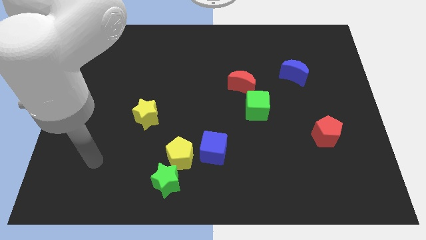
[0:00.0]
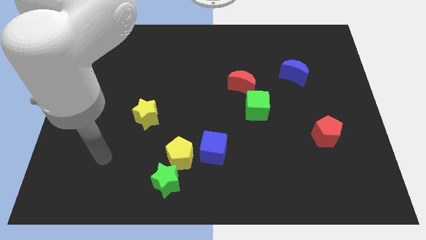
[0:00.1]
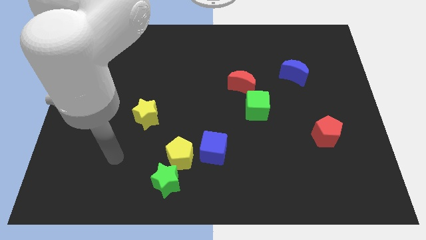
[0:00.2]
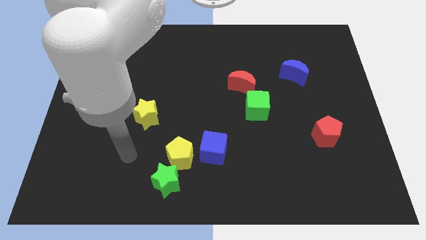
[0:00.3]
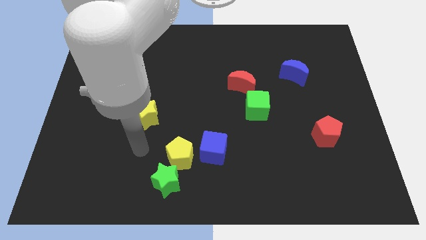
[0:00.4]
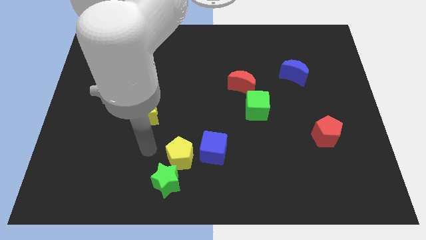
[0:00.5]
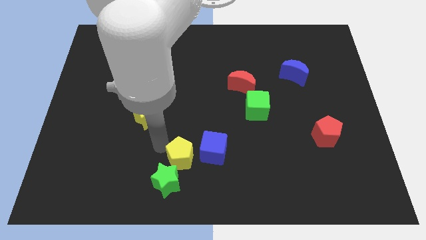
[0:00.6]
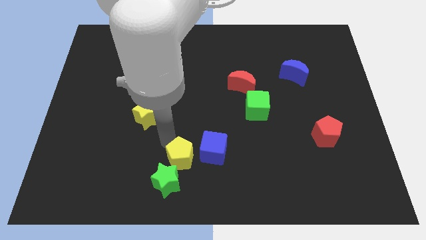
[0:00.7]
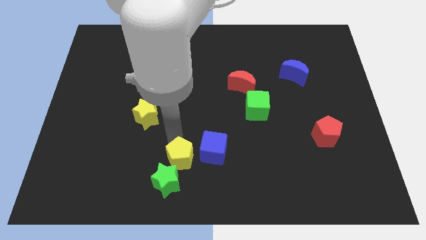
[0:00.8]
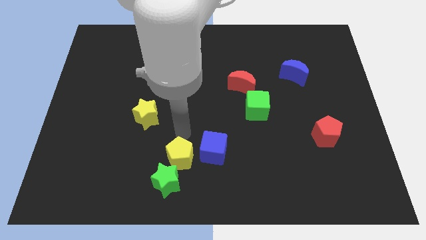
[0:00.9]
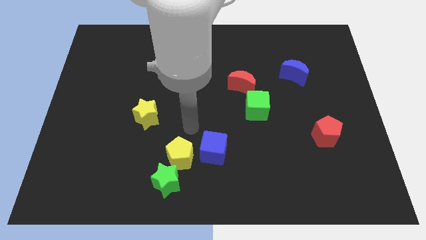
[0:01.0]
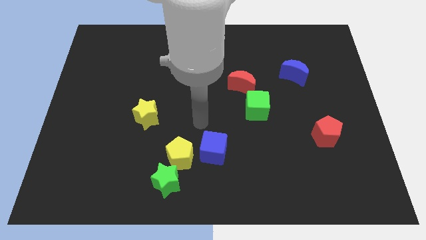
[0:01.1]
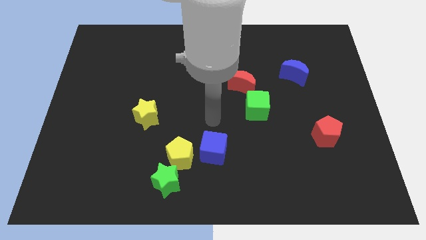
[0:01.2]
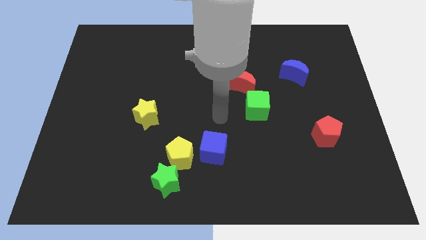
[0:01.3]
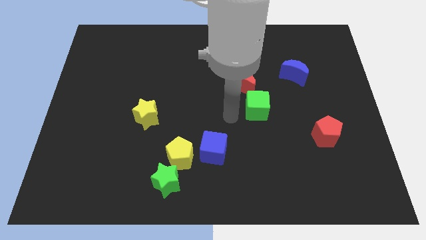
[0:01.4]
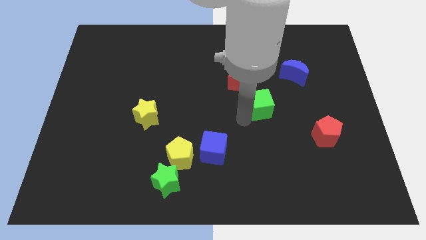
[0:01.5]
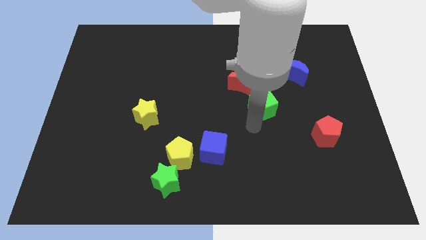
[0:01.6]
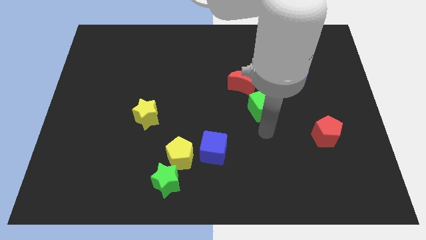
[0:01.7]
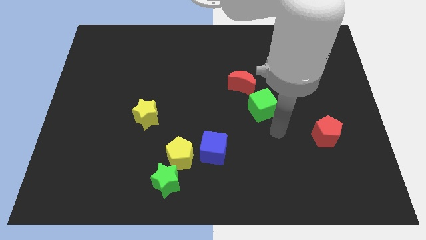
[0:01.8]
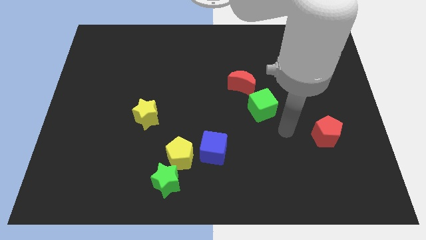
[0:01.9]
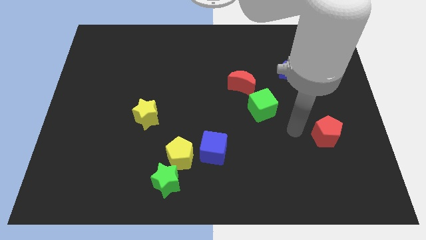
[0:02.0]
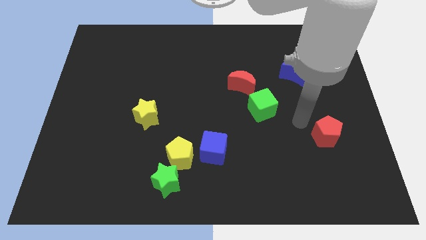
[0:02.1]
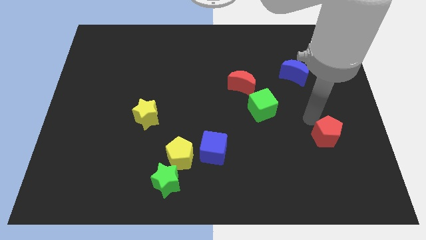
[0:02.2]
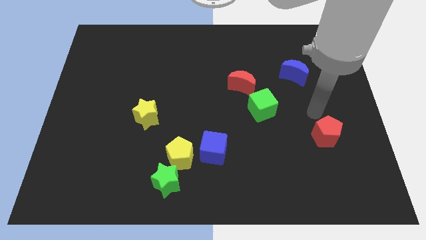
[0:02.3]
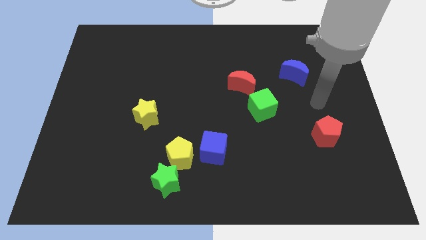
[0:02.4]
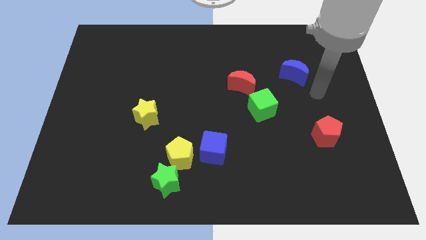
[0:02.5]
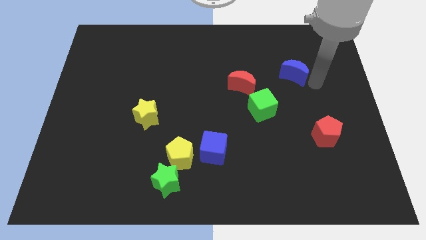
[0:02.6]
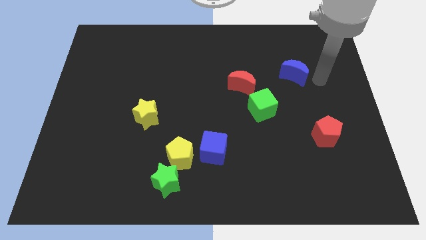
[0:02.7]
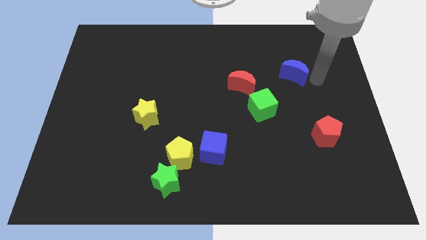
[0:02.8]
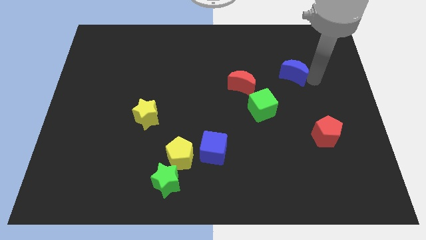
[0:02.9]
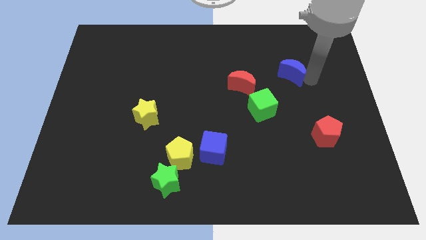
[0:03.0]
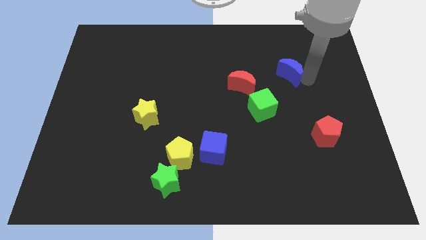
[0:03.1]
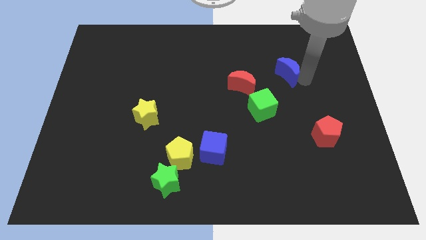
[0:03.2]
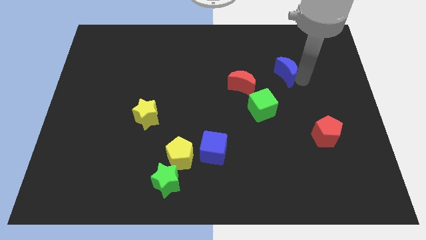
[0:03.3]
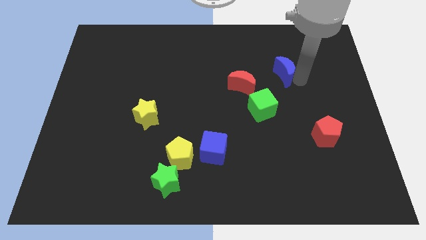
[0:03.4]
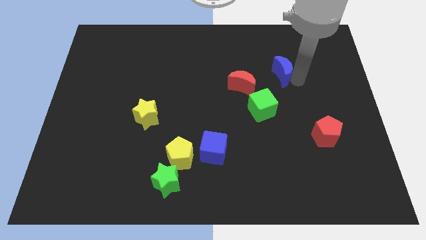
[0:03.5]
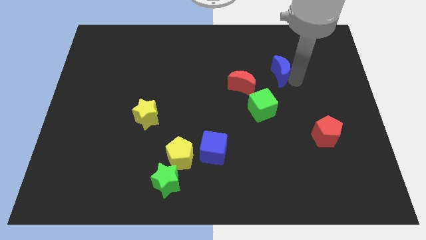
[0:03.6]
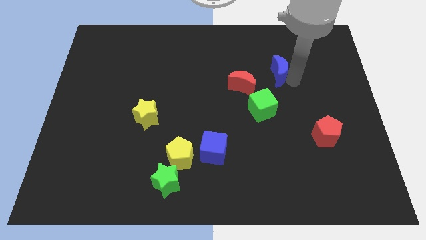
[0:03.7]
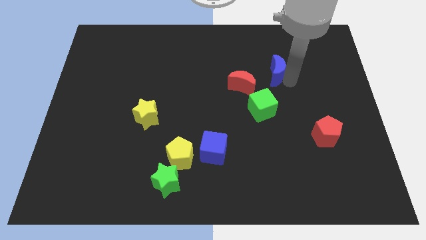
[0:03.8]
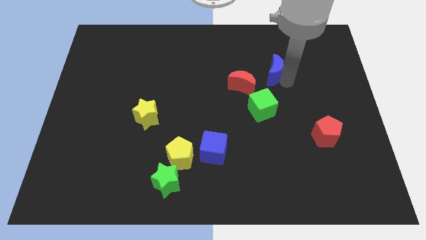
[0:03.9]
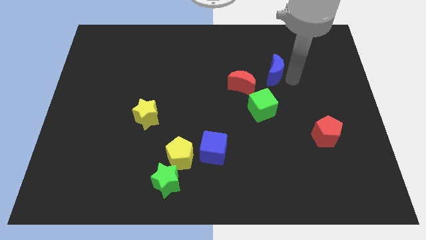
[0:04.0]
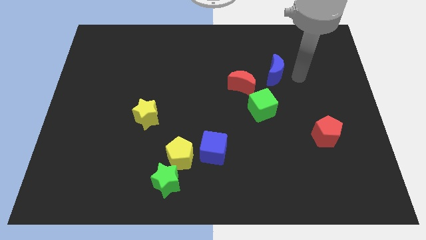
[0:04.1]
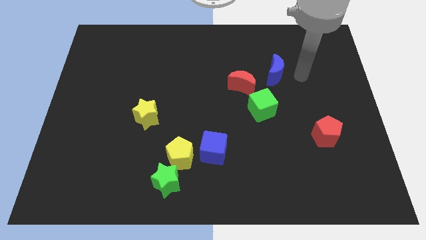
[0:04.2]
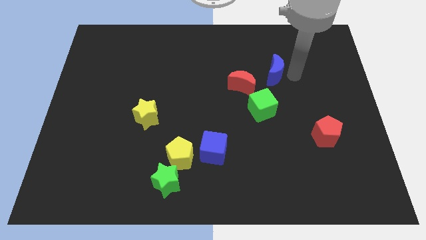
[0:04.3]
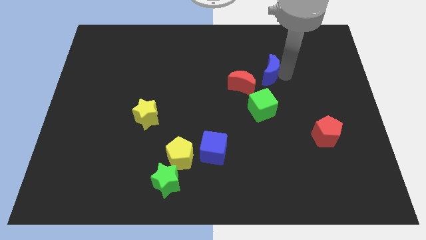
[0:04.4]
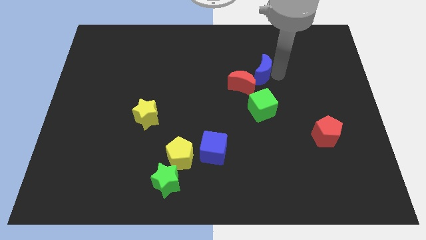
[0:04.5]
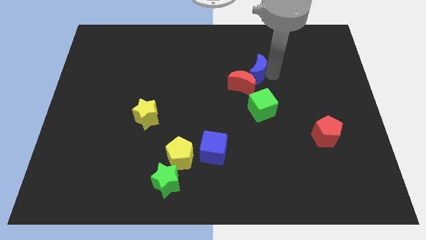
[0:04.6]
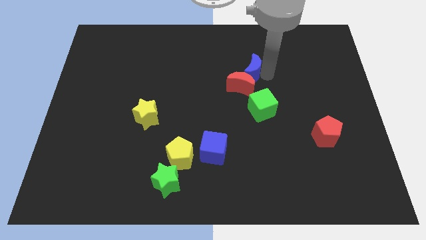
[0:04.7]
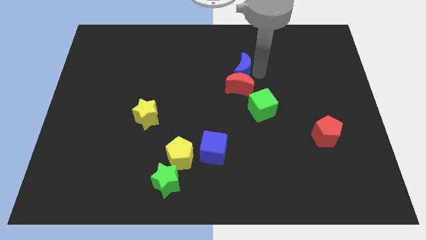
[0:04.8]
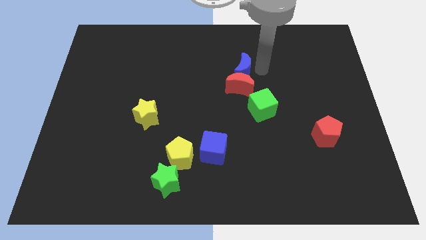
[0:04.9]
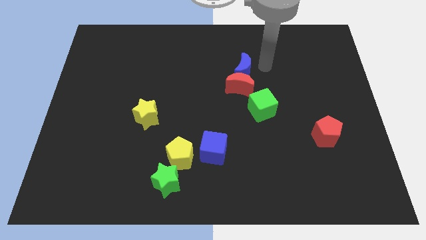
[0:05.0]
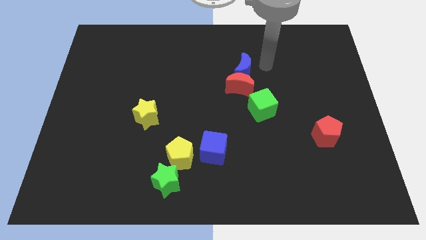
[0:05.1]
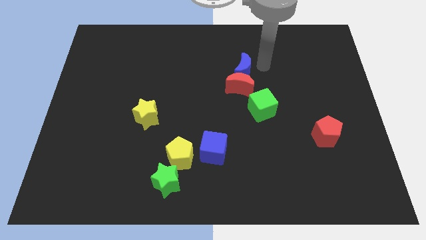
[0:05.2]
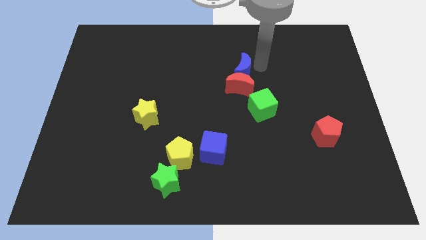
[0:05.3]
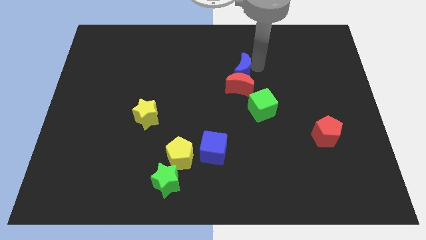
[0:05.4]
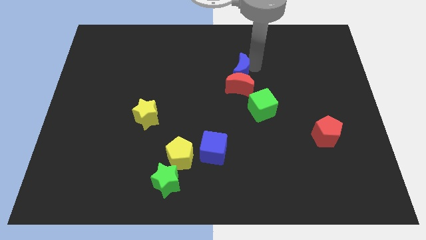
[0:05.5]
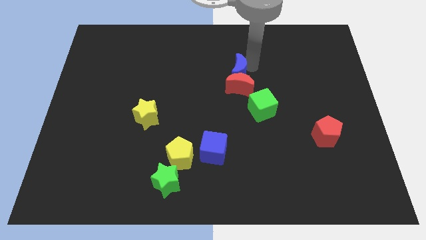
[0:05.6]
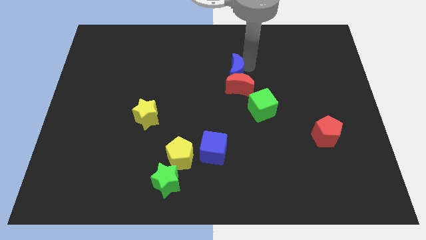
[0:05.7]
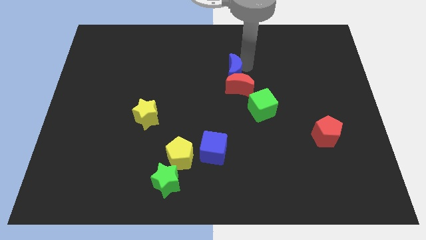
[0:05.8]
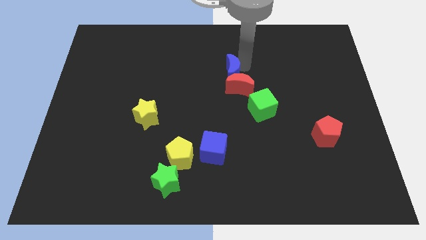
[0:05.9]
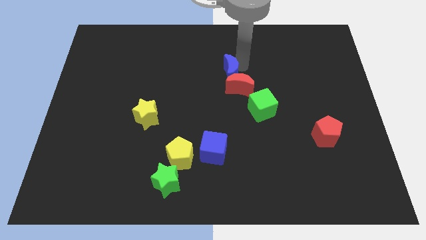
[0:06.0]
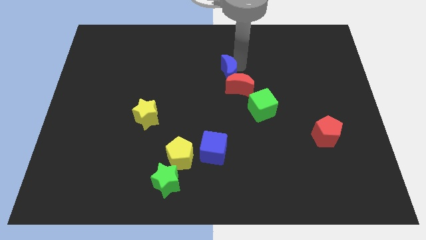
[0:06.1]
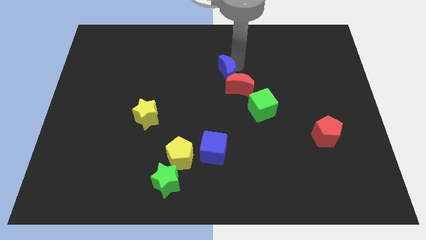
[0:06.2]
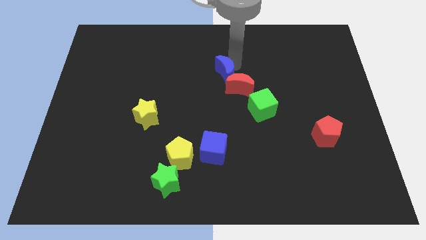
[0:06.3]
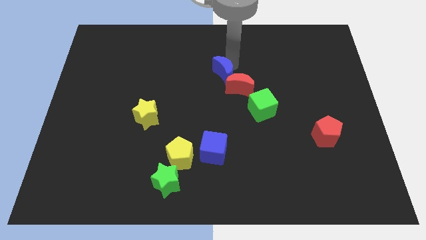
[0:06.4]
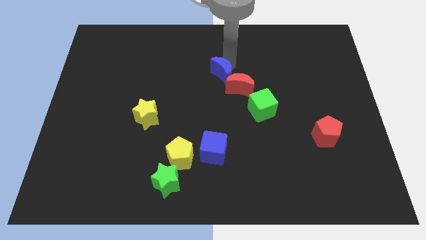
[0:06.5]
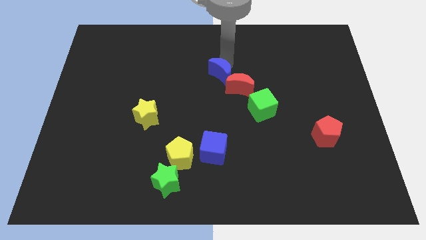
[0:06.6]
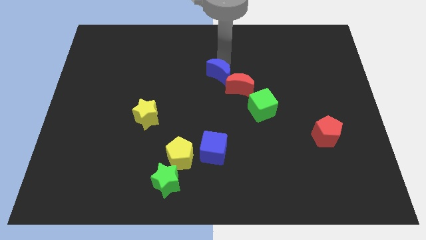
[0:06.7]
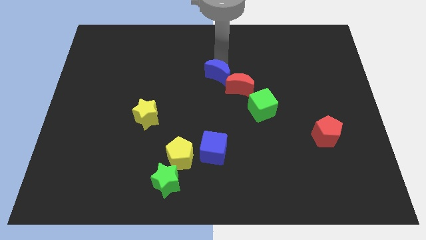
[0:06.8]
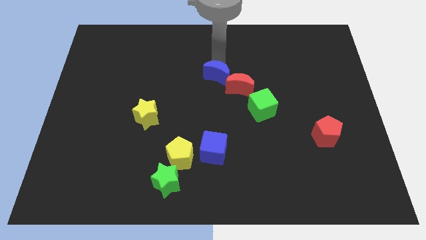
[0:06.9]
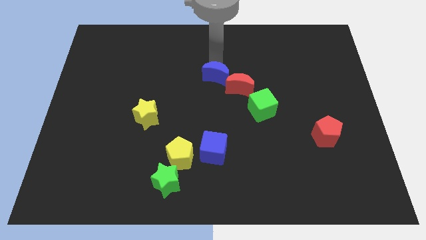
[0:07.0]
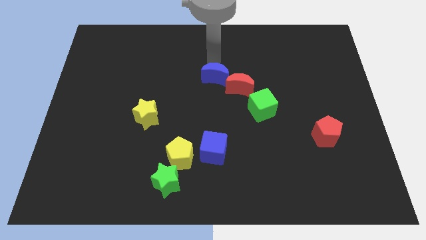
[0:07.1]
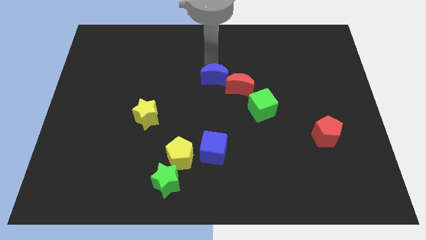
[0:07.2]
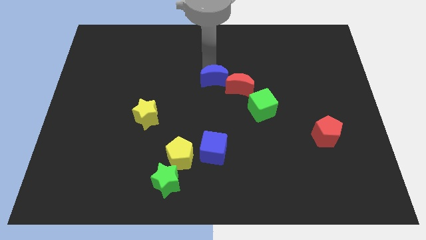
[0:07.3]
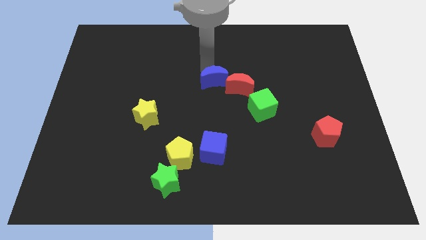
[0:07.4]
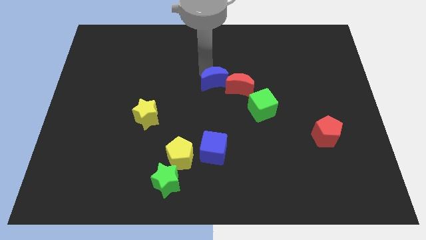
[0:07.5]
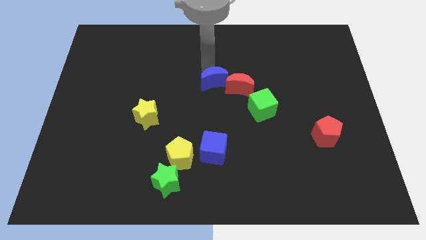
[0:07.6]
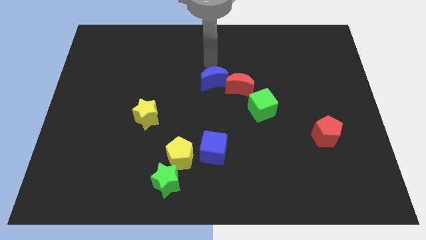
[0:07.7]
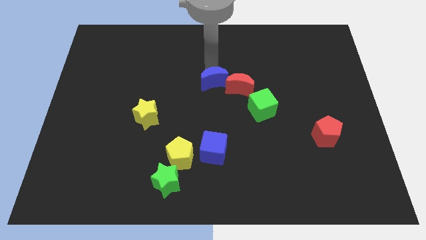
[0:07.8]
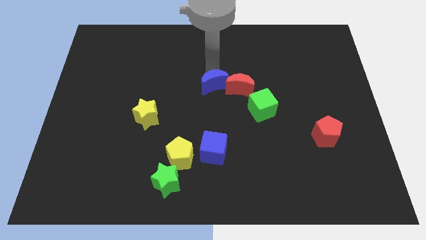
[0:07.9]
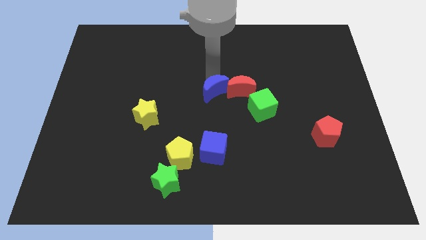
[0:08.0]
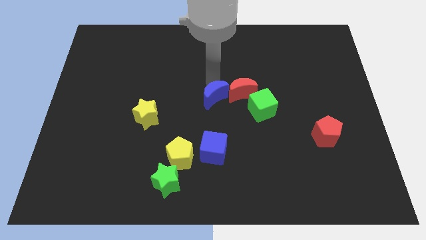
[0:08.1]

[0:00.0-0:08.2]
move the blue moon just left of the green cube
